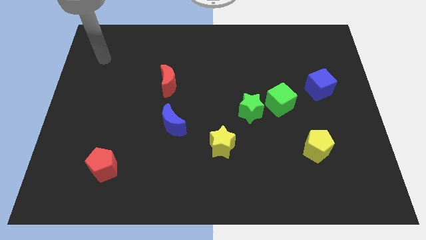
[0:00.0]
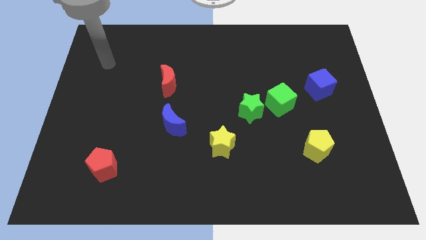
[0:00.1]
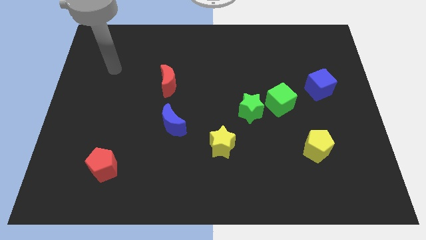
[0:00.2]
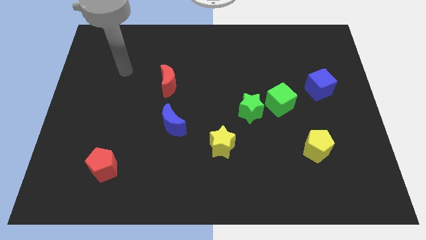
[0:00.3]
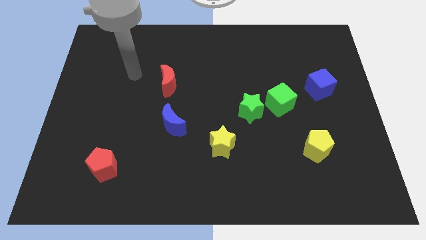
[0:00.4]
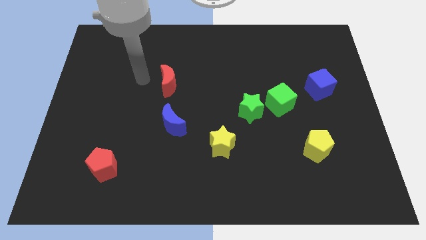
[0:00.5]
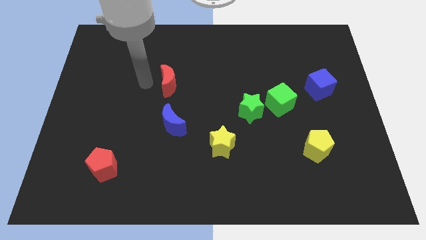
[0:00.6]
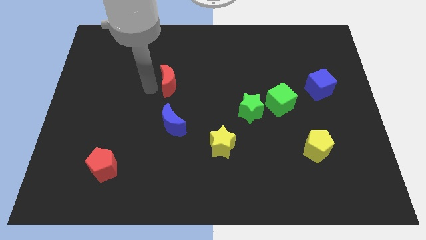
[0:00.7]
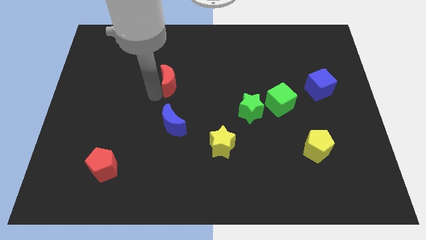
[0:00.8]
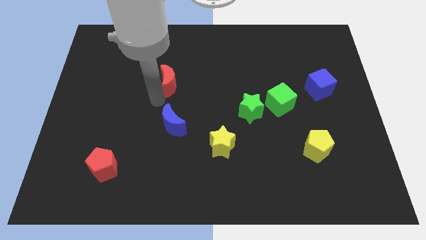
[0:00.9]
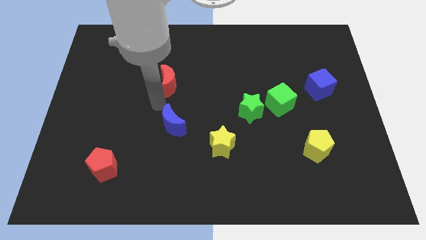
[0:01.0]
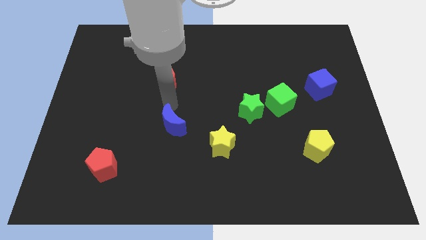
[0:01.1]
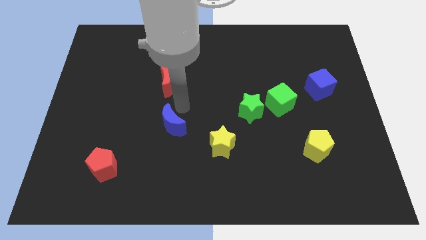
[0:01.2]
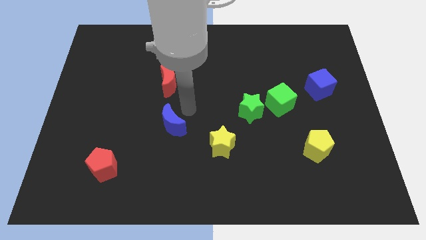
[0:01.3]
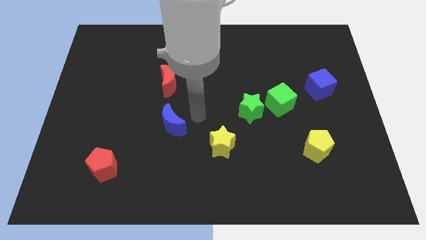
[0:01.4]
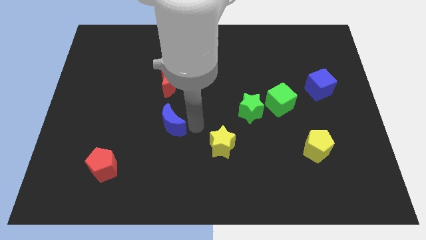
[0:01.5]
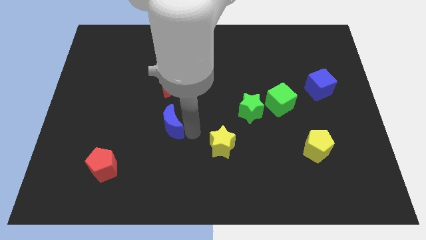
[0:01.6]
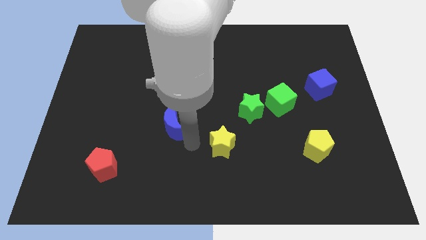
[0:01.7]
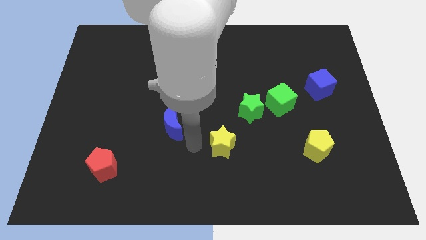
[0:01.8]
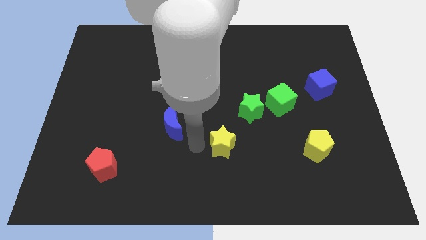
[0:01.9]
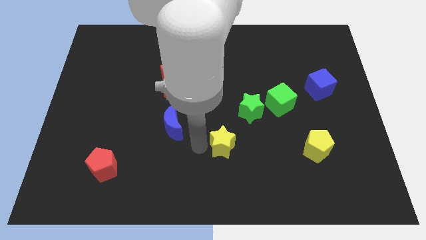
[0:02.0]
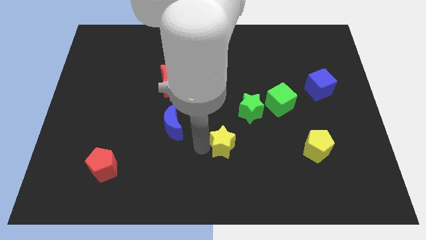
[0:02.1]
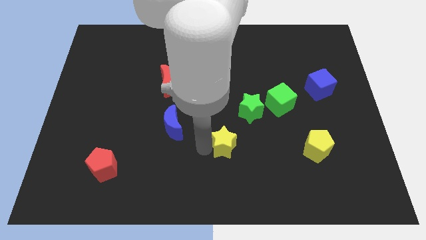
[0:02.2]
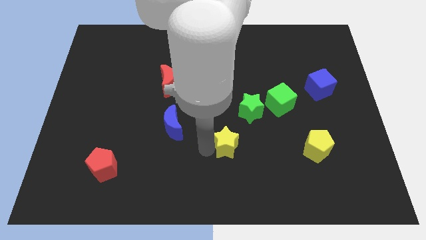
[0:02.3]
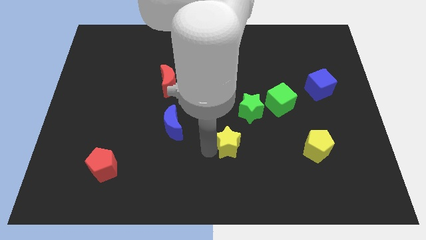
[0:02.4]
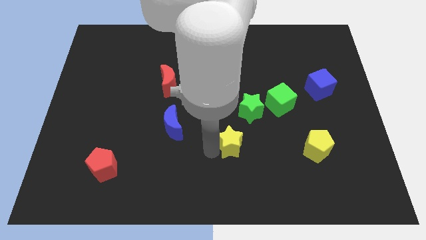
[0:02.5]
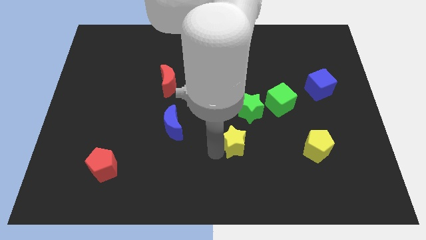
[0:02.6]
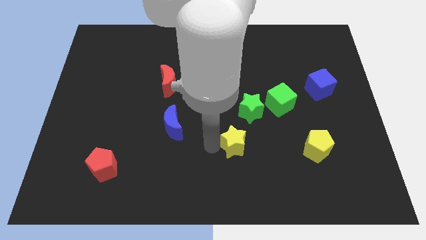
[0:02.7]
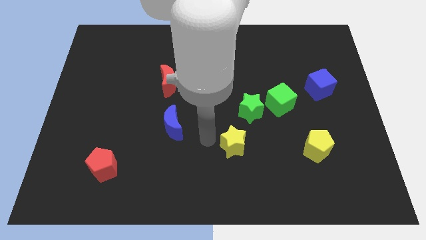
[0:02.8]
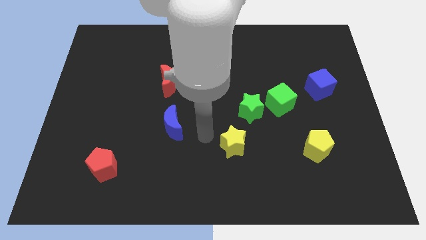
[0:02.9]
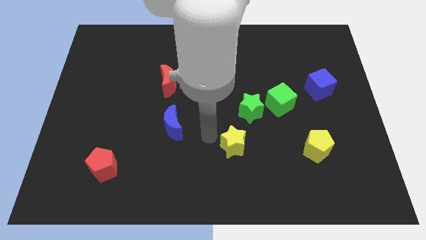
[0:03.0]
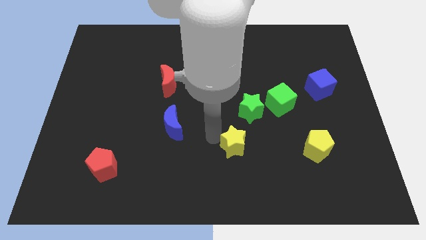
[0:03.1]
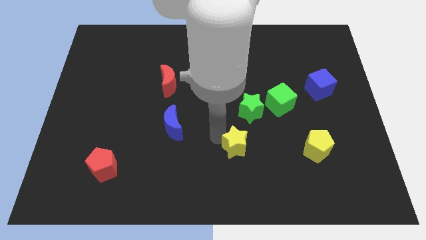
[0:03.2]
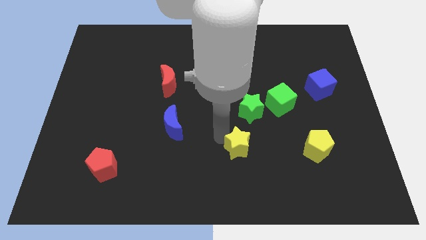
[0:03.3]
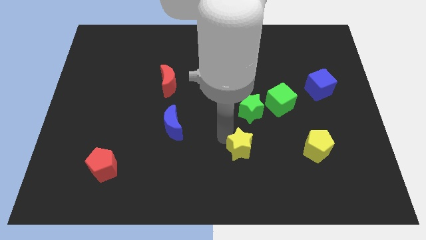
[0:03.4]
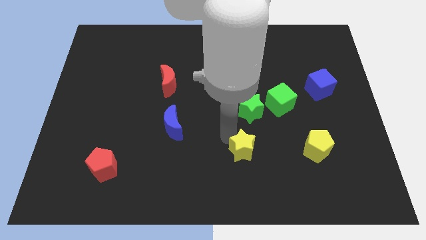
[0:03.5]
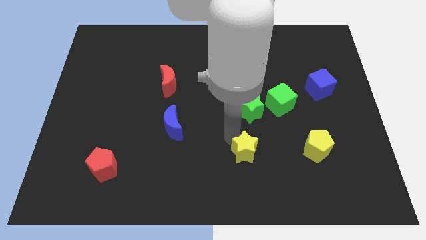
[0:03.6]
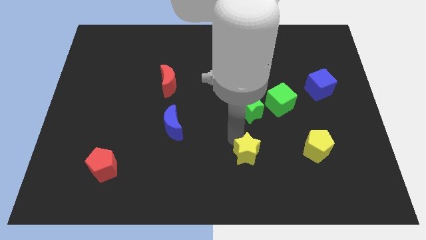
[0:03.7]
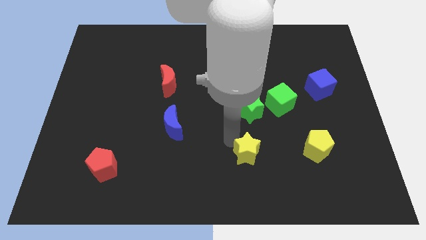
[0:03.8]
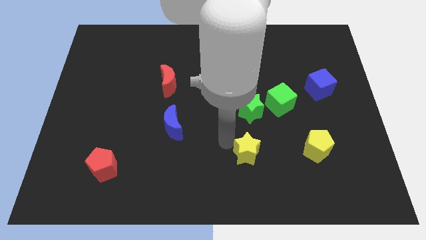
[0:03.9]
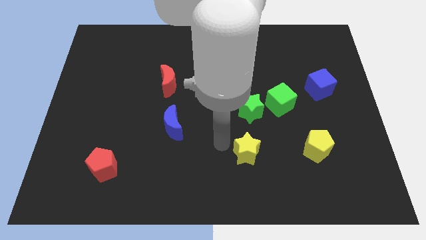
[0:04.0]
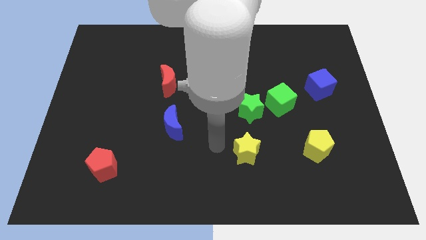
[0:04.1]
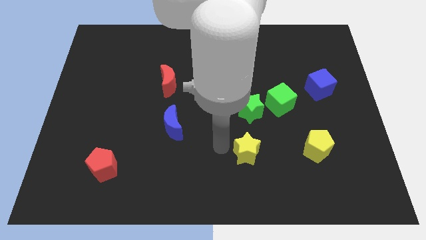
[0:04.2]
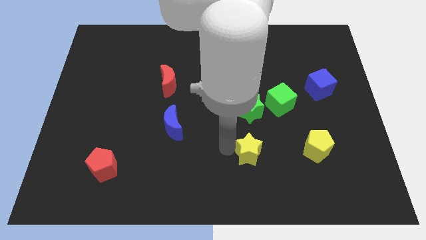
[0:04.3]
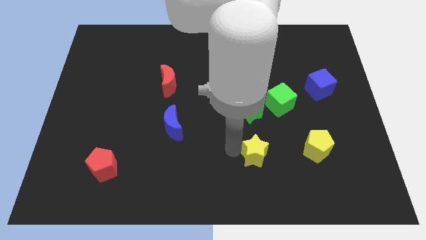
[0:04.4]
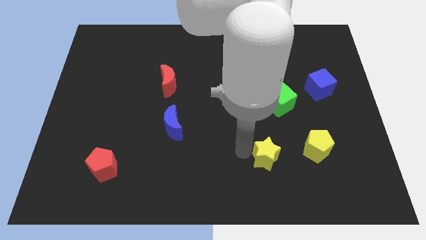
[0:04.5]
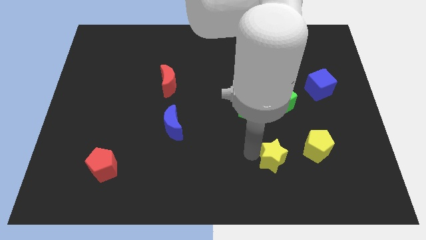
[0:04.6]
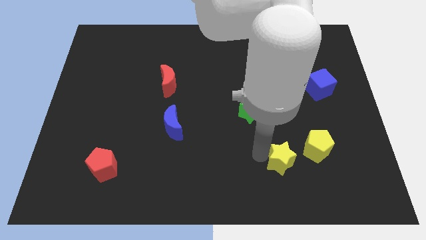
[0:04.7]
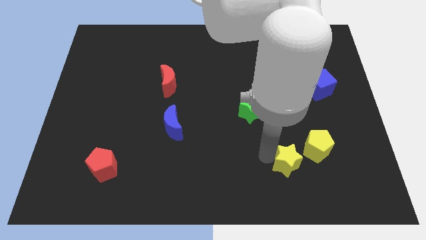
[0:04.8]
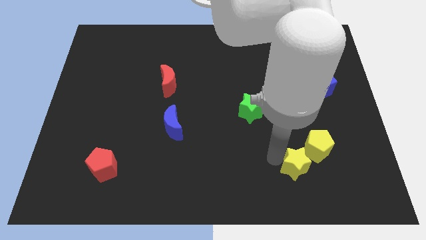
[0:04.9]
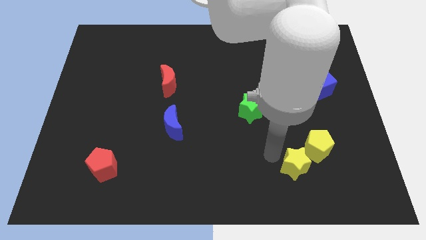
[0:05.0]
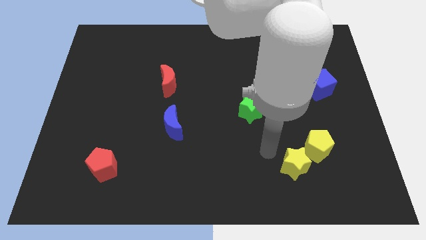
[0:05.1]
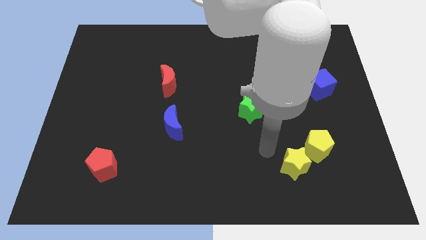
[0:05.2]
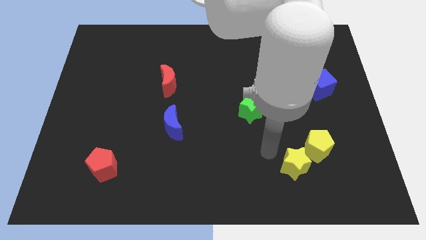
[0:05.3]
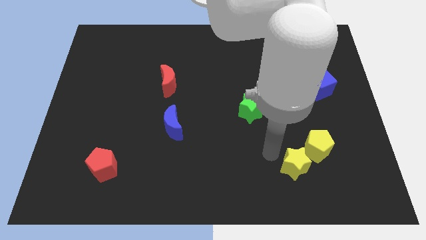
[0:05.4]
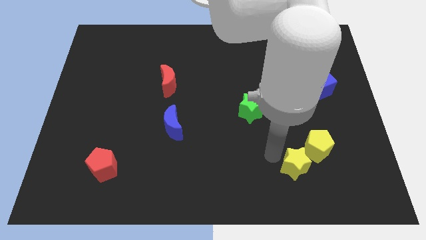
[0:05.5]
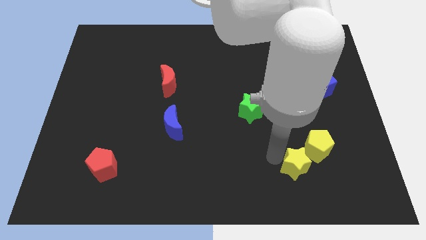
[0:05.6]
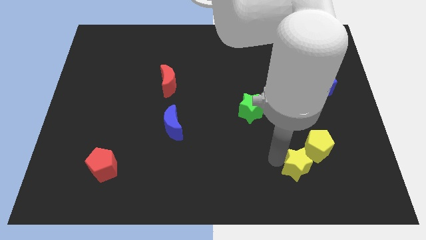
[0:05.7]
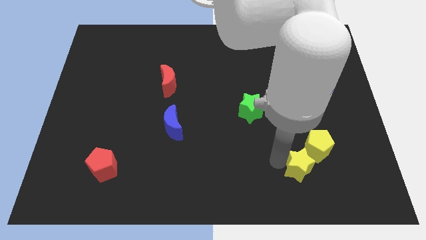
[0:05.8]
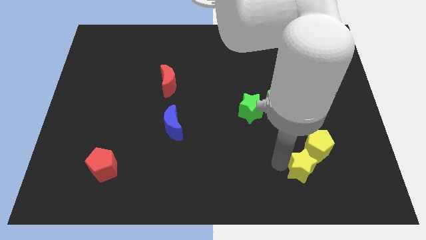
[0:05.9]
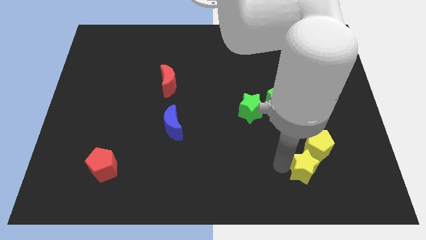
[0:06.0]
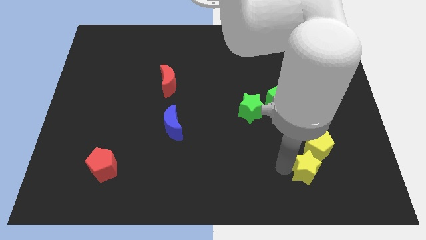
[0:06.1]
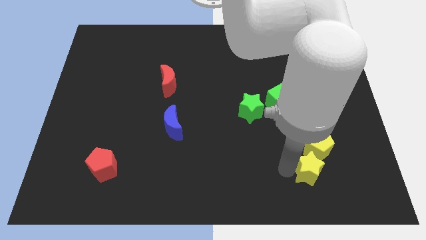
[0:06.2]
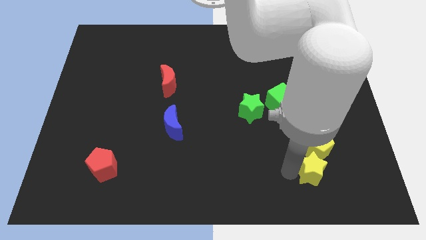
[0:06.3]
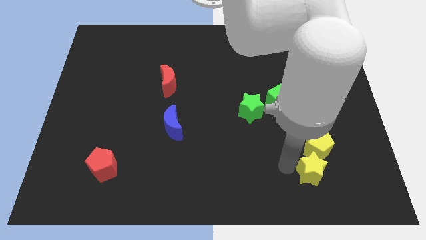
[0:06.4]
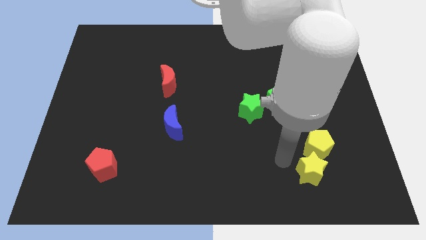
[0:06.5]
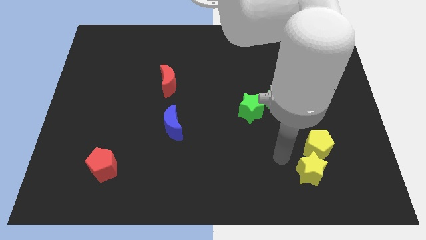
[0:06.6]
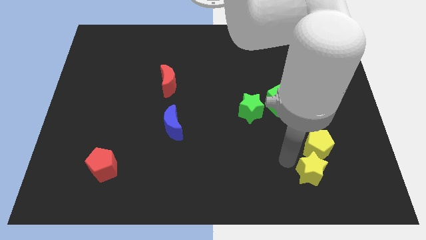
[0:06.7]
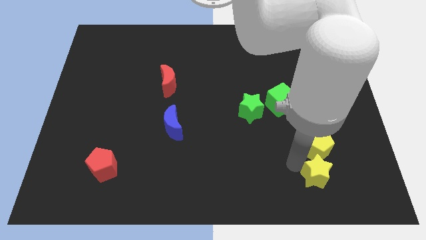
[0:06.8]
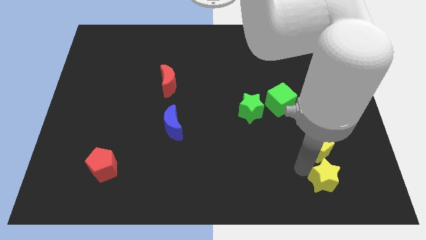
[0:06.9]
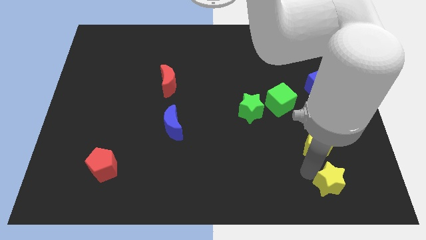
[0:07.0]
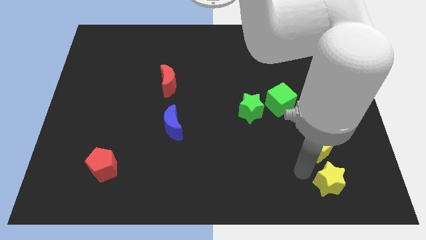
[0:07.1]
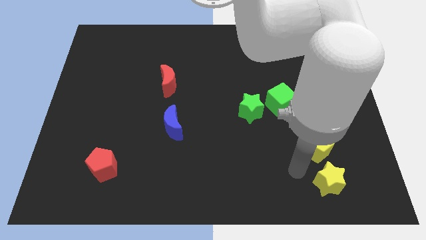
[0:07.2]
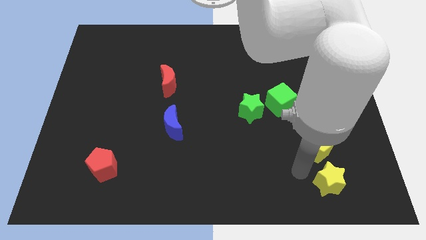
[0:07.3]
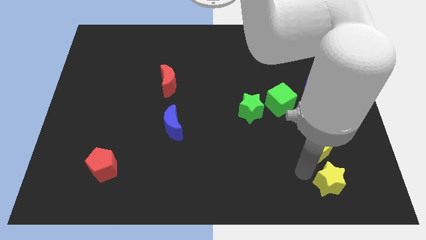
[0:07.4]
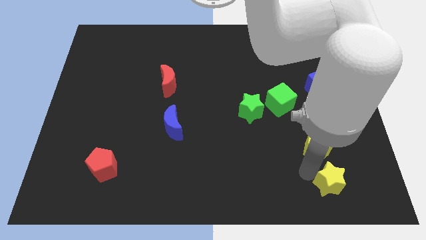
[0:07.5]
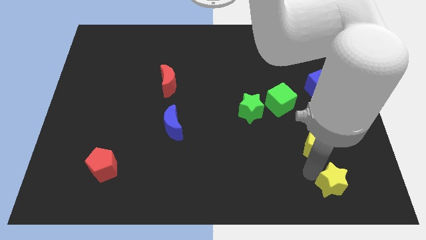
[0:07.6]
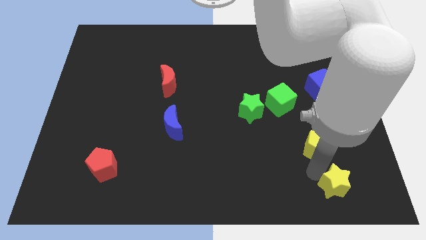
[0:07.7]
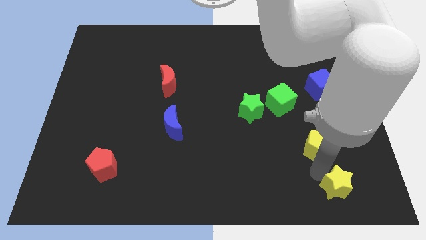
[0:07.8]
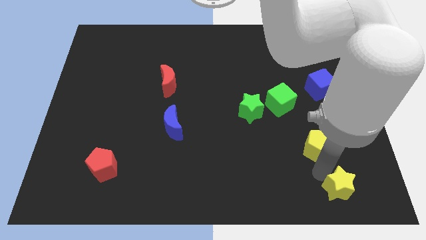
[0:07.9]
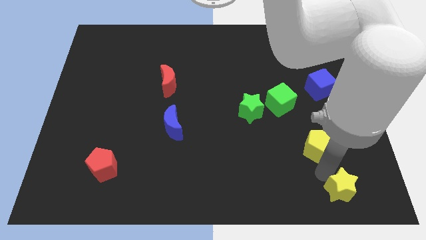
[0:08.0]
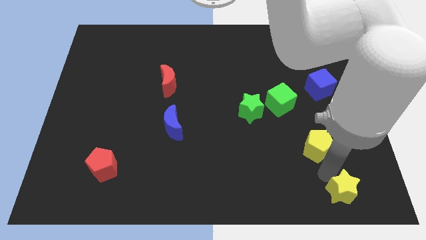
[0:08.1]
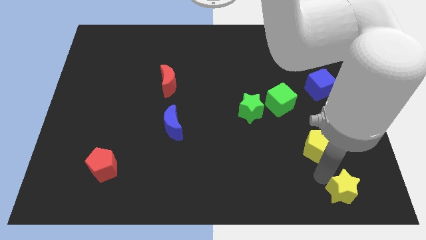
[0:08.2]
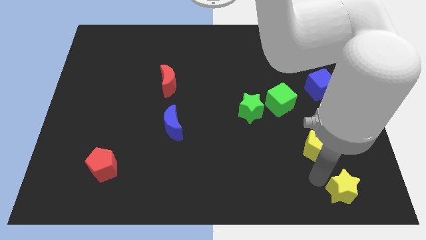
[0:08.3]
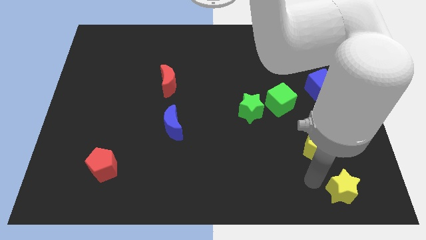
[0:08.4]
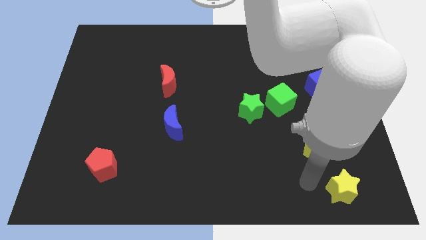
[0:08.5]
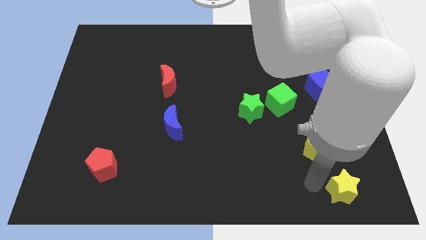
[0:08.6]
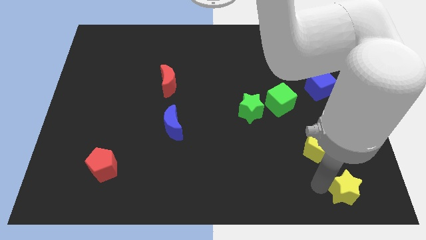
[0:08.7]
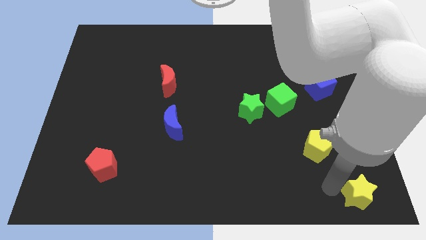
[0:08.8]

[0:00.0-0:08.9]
push the yellow star to the lower right corner
